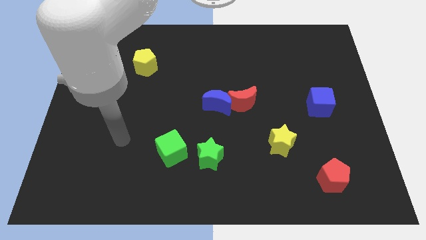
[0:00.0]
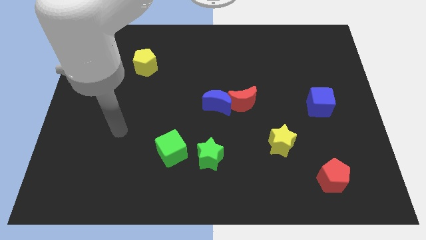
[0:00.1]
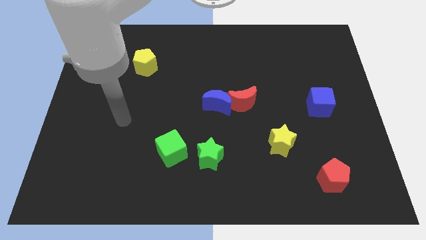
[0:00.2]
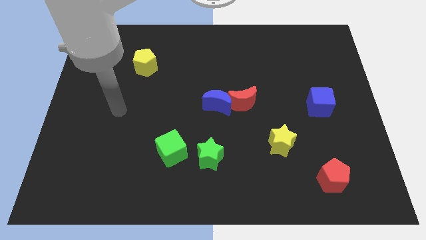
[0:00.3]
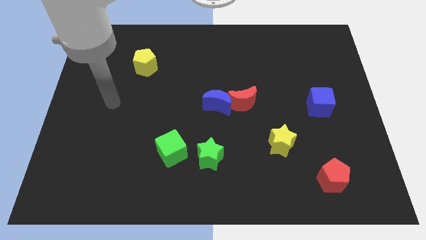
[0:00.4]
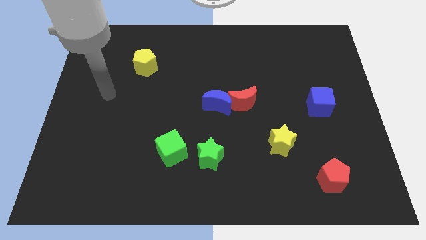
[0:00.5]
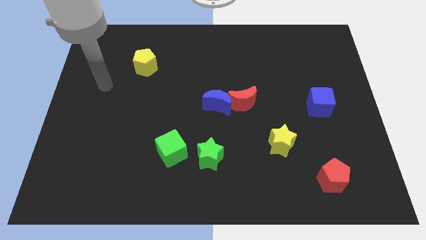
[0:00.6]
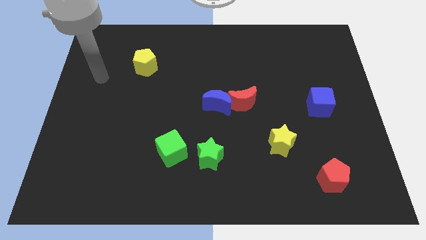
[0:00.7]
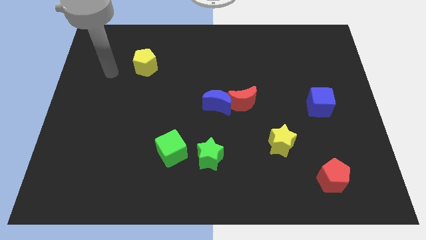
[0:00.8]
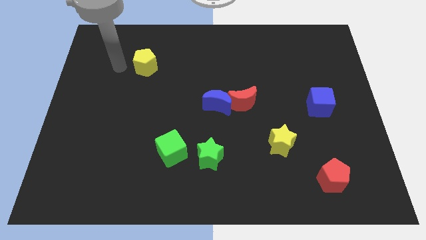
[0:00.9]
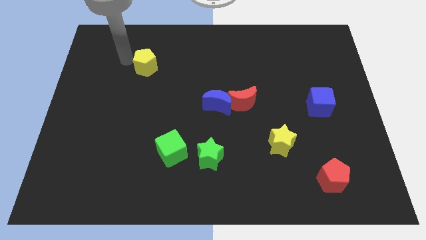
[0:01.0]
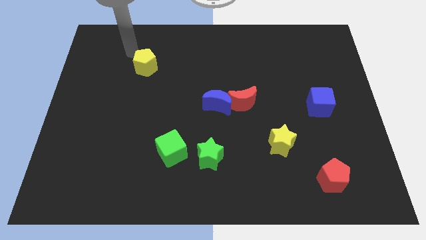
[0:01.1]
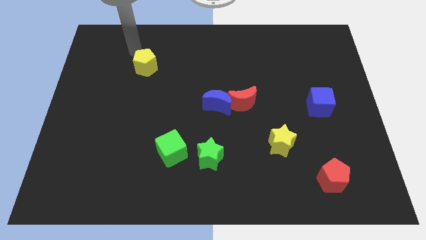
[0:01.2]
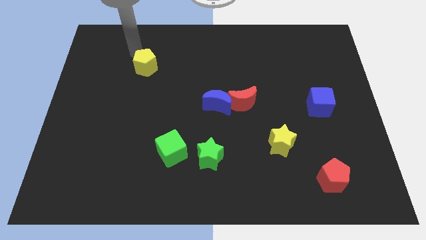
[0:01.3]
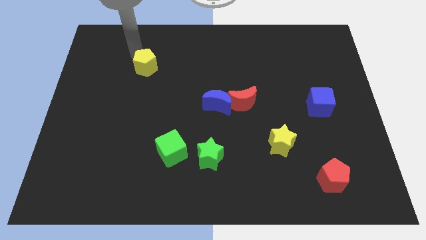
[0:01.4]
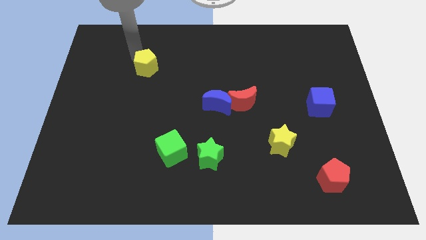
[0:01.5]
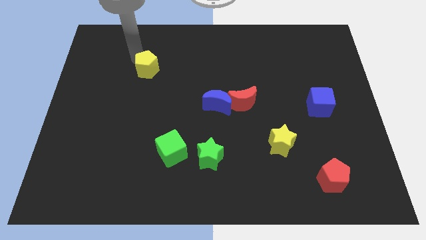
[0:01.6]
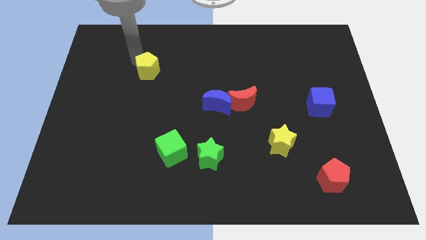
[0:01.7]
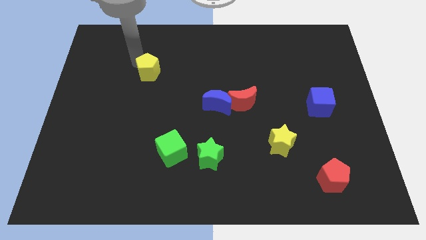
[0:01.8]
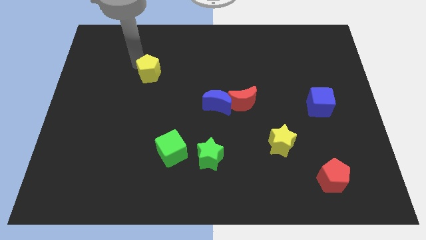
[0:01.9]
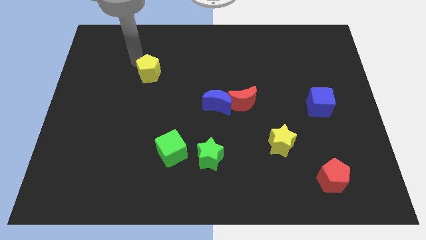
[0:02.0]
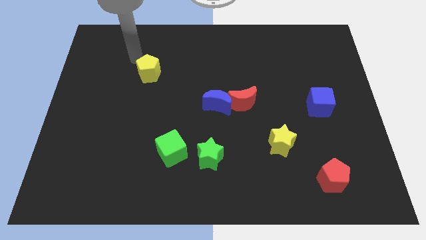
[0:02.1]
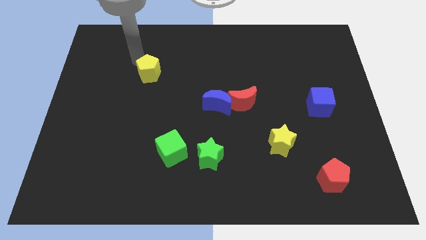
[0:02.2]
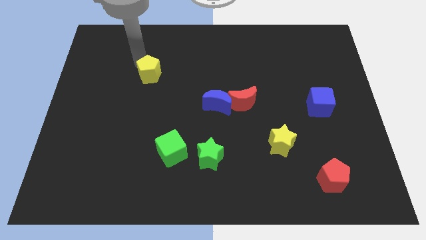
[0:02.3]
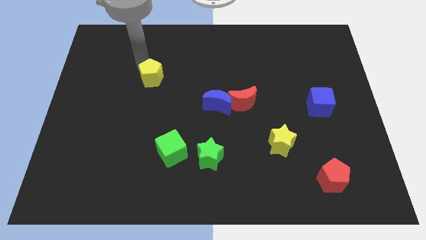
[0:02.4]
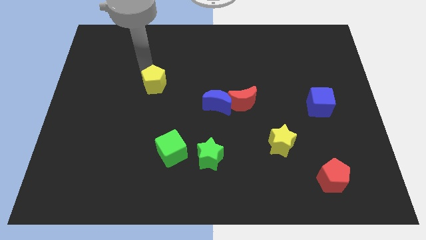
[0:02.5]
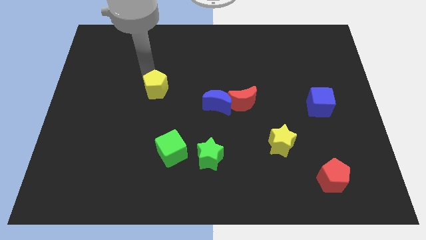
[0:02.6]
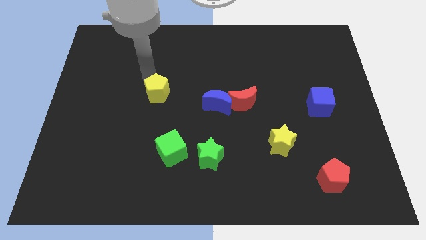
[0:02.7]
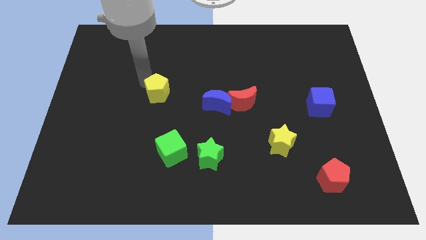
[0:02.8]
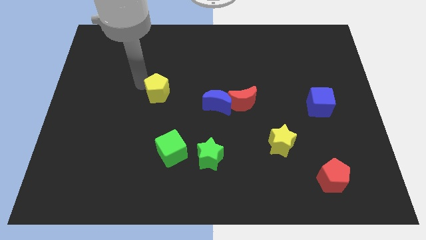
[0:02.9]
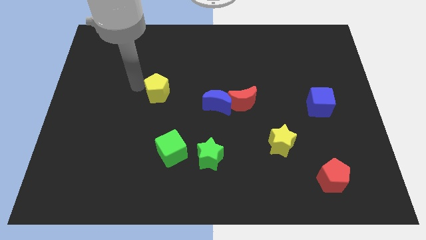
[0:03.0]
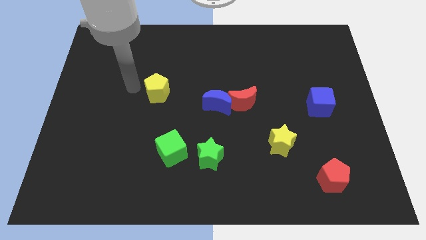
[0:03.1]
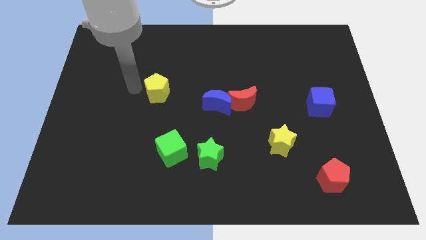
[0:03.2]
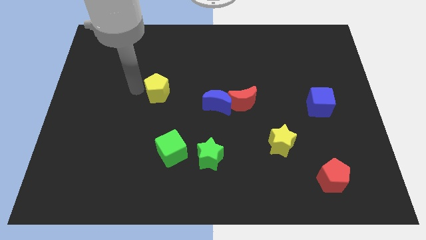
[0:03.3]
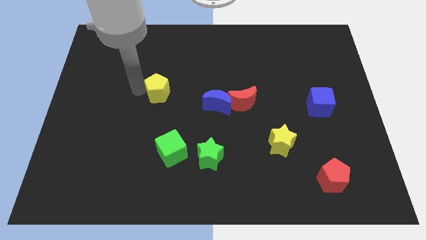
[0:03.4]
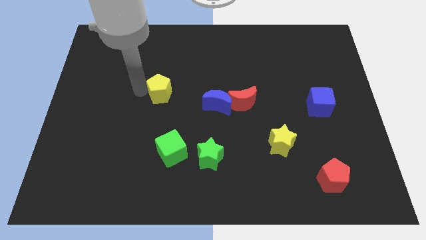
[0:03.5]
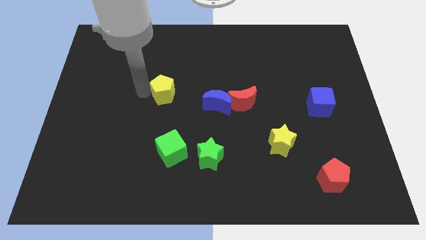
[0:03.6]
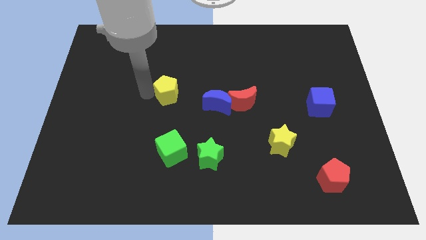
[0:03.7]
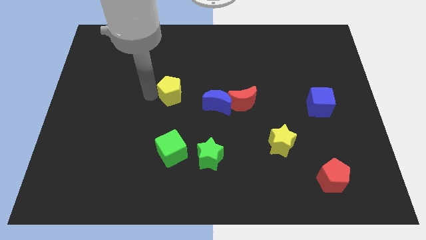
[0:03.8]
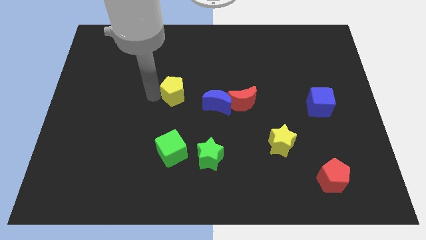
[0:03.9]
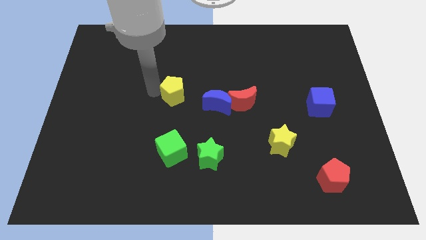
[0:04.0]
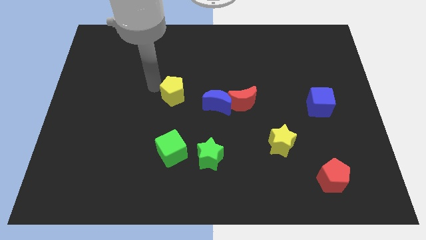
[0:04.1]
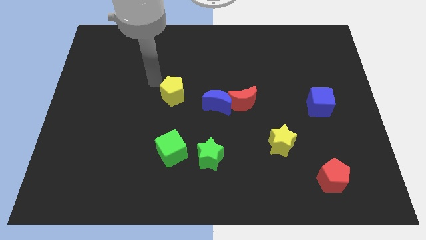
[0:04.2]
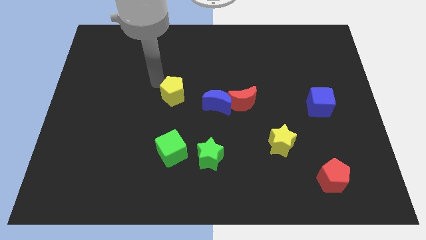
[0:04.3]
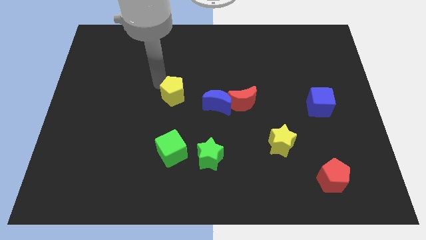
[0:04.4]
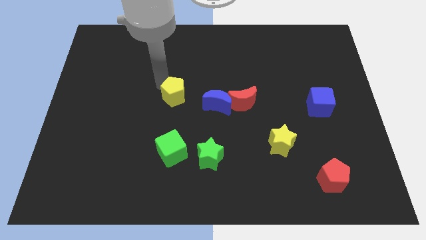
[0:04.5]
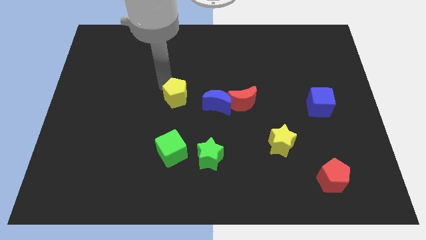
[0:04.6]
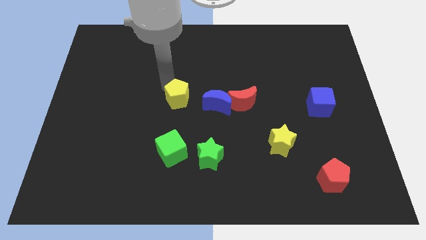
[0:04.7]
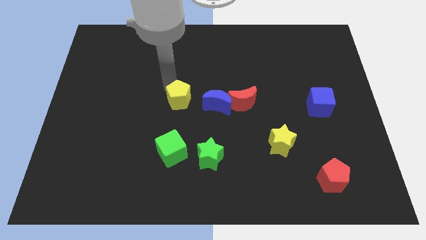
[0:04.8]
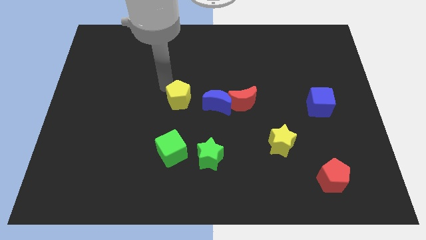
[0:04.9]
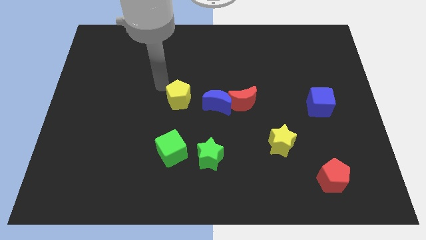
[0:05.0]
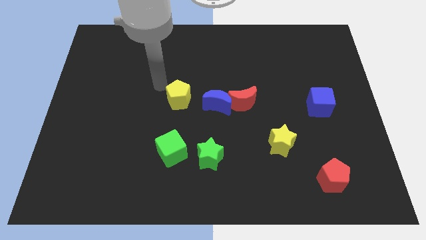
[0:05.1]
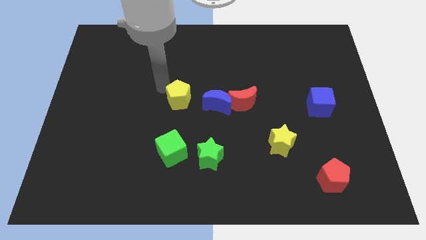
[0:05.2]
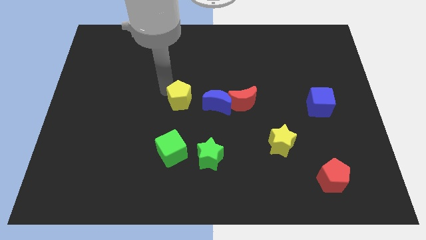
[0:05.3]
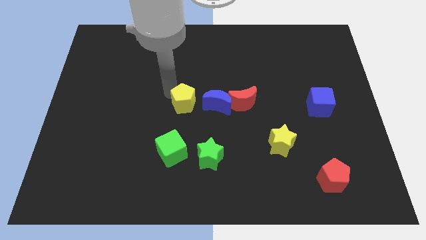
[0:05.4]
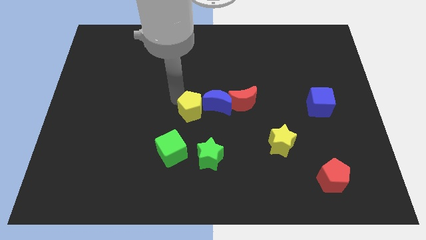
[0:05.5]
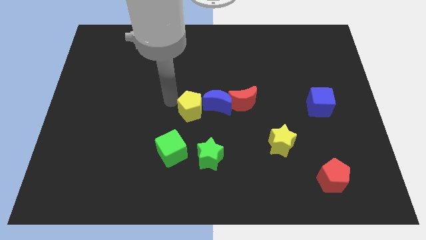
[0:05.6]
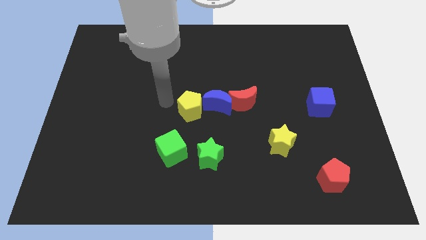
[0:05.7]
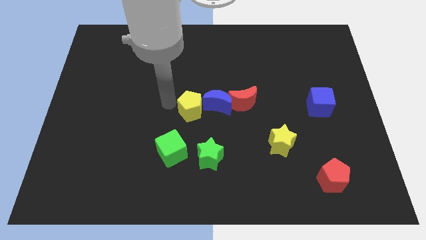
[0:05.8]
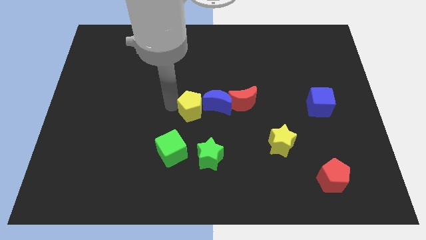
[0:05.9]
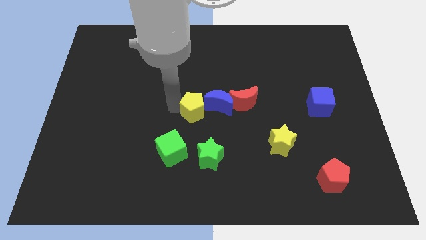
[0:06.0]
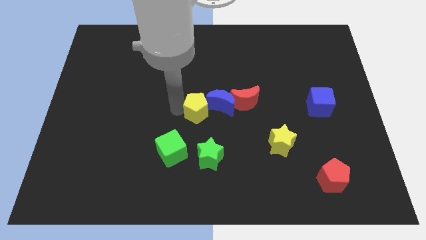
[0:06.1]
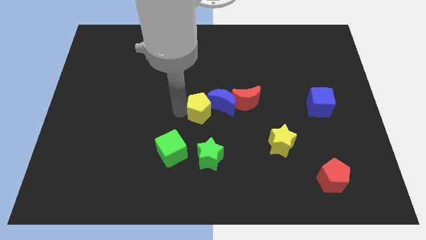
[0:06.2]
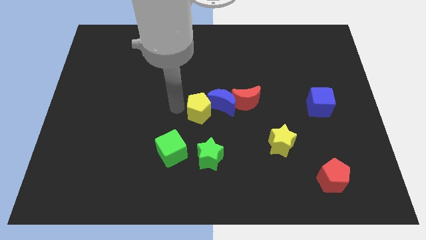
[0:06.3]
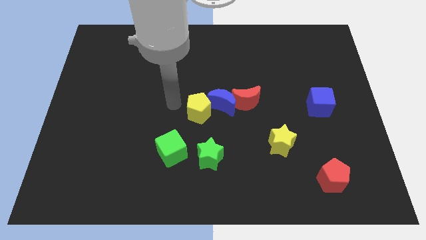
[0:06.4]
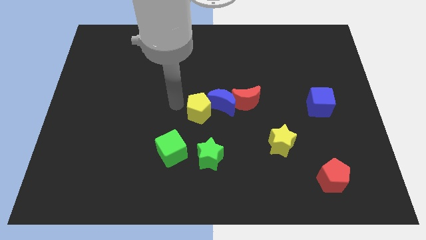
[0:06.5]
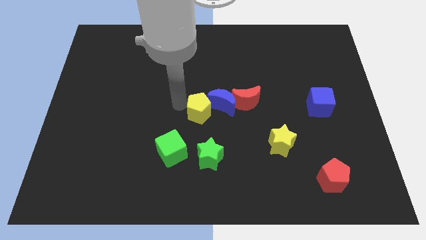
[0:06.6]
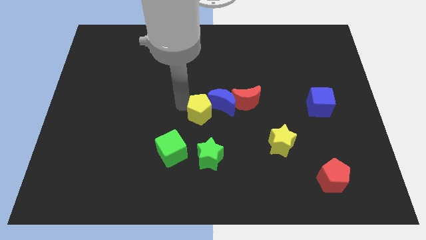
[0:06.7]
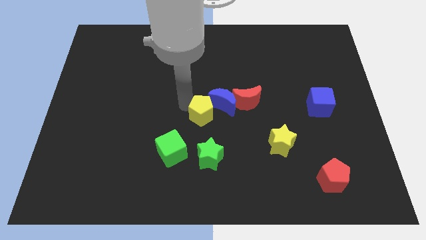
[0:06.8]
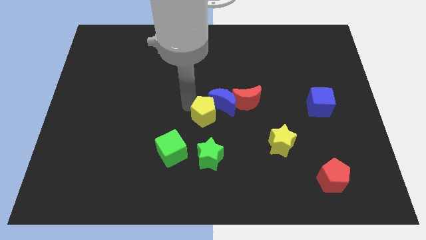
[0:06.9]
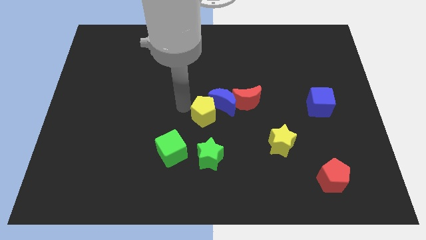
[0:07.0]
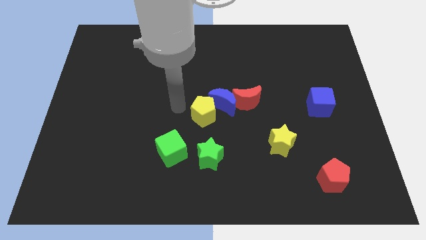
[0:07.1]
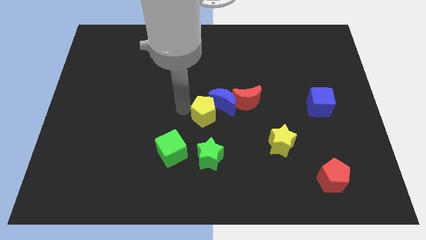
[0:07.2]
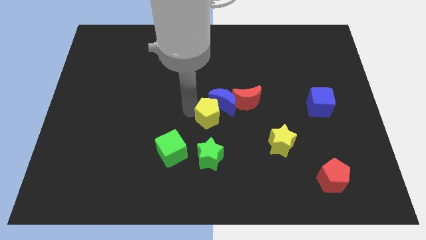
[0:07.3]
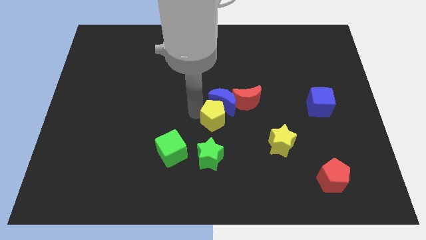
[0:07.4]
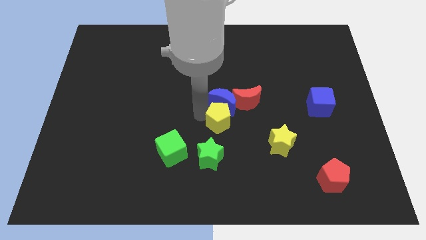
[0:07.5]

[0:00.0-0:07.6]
slide the yellow pentagon to the bottom right of the blue moon
